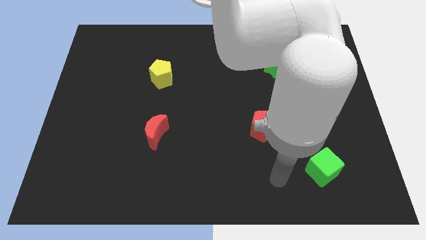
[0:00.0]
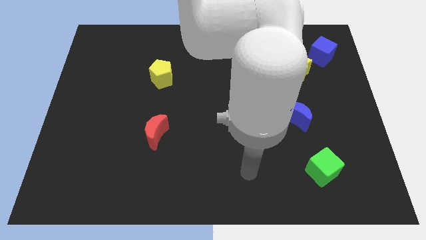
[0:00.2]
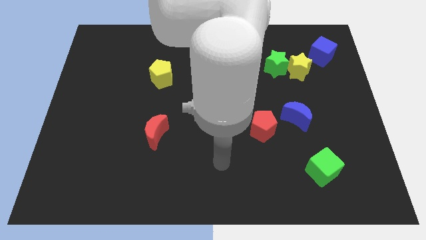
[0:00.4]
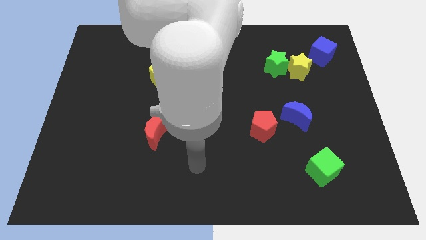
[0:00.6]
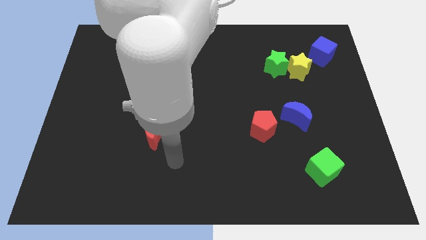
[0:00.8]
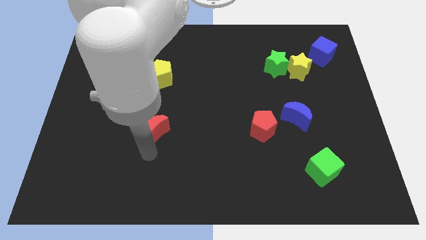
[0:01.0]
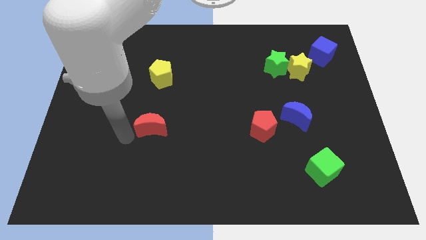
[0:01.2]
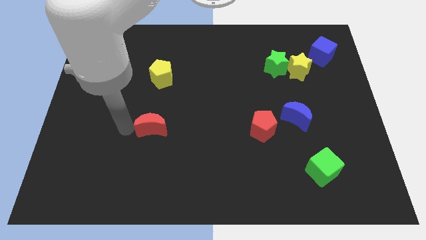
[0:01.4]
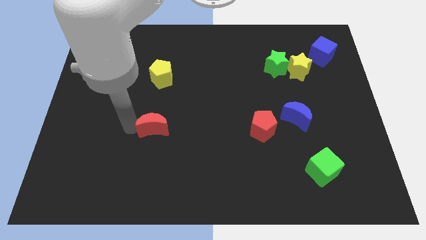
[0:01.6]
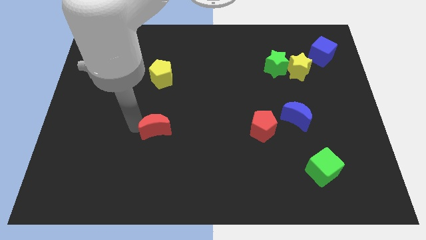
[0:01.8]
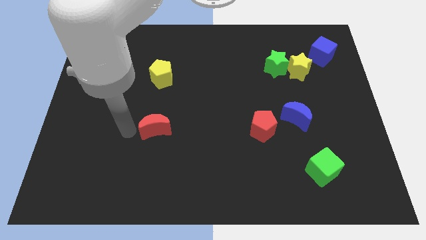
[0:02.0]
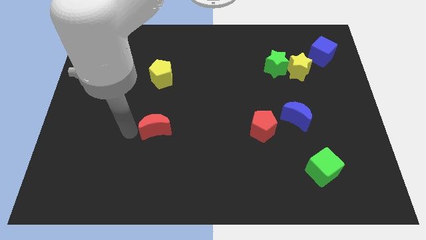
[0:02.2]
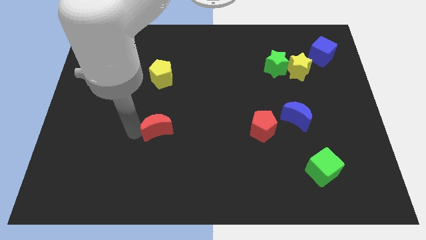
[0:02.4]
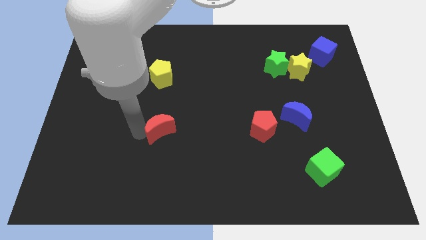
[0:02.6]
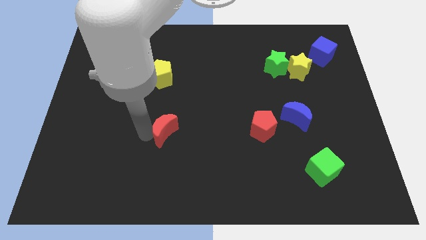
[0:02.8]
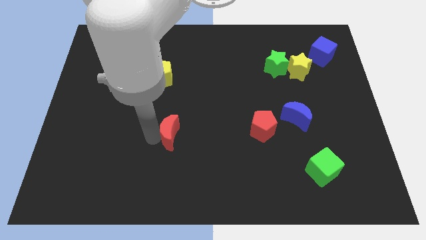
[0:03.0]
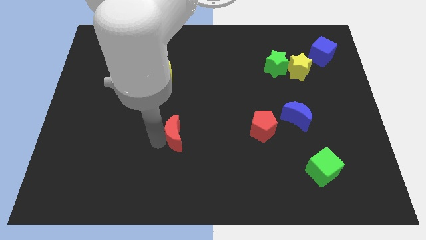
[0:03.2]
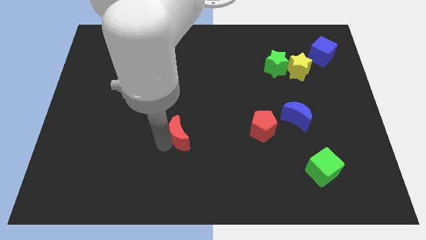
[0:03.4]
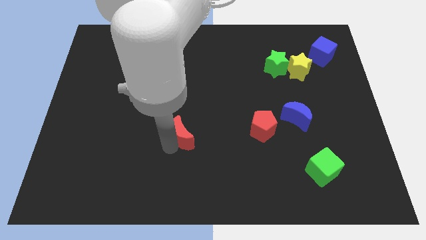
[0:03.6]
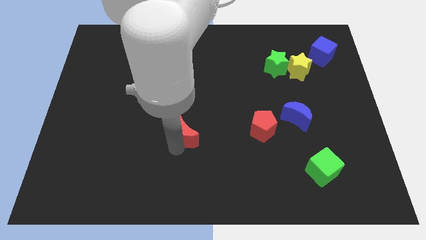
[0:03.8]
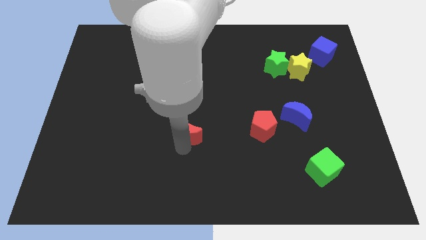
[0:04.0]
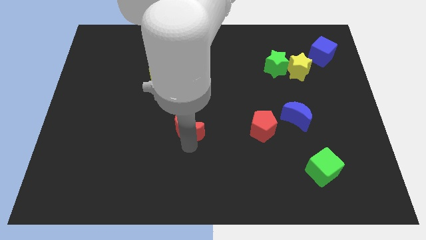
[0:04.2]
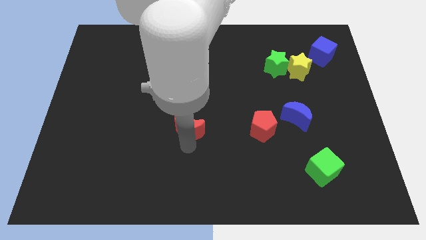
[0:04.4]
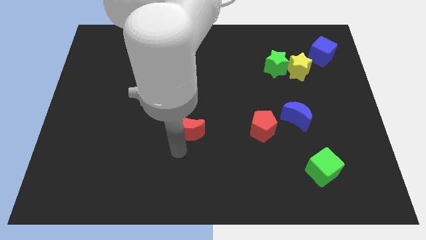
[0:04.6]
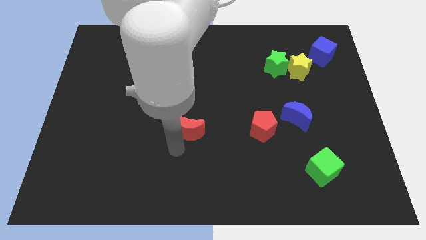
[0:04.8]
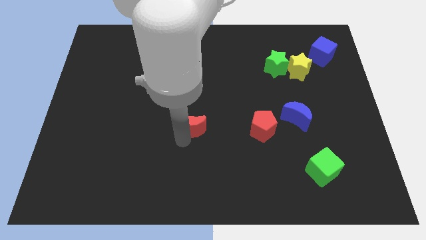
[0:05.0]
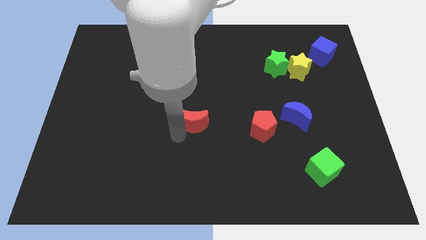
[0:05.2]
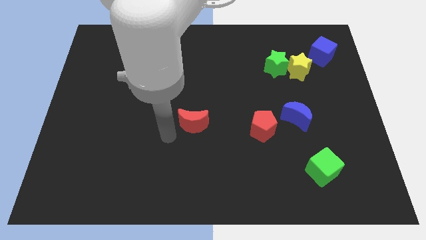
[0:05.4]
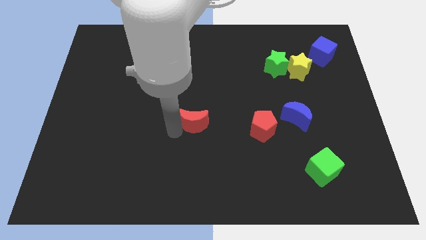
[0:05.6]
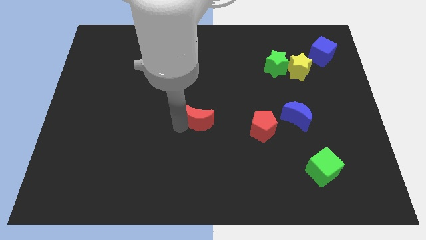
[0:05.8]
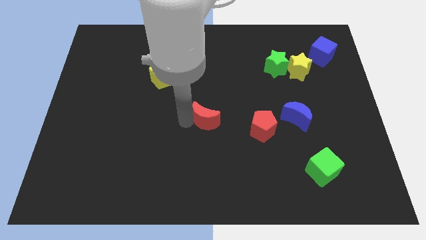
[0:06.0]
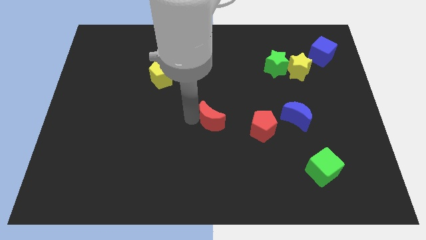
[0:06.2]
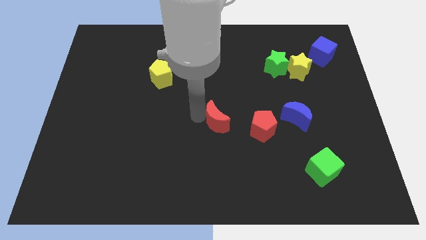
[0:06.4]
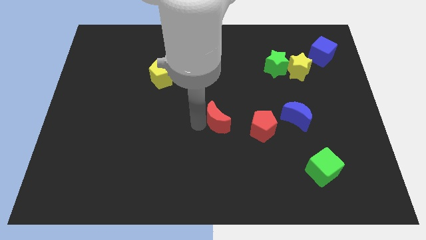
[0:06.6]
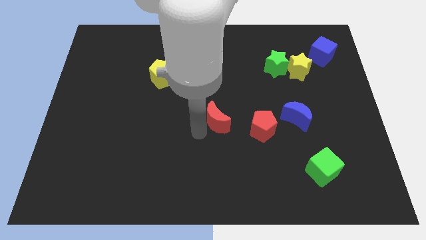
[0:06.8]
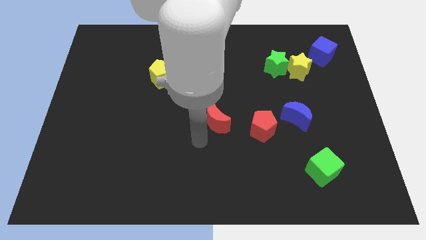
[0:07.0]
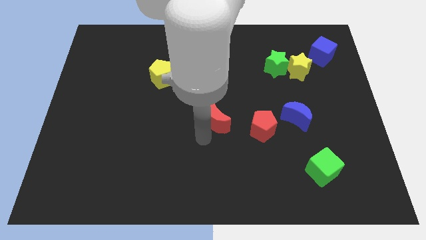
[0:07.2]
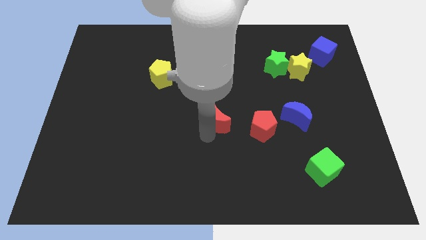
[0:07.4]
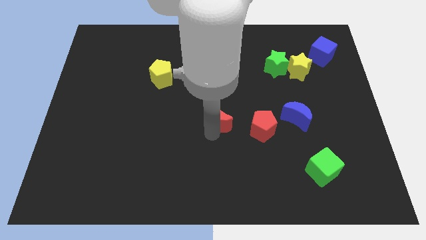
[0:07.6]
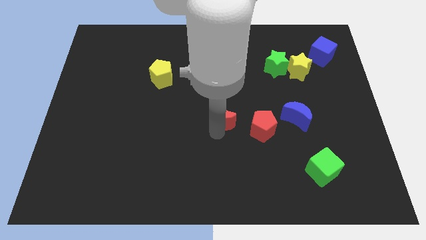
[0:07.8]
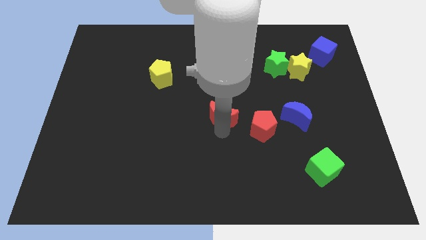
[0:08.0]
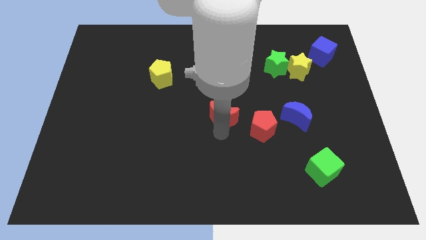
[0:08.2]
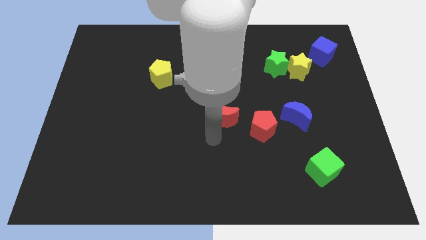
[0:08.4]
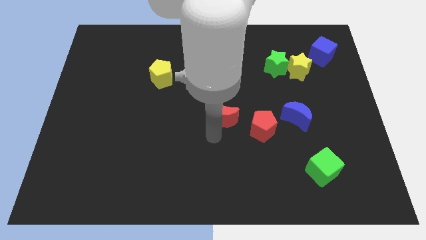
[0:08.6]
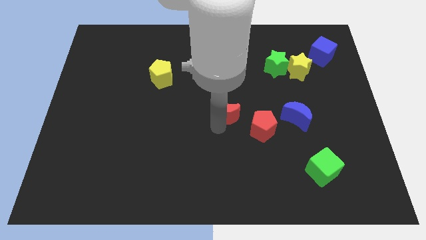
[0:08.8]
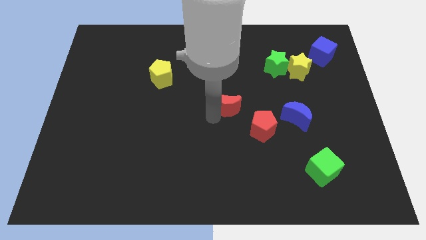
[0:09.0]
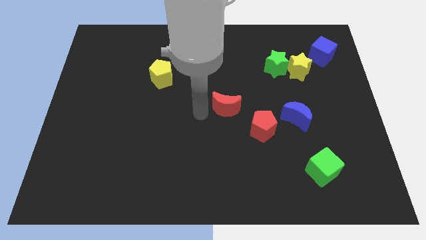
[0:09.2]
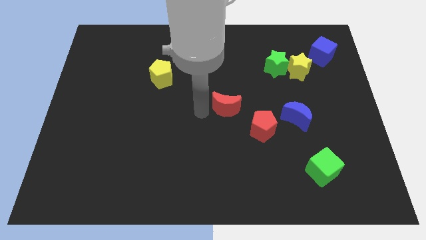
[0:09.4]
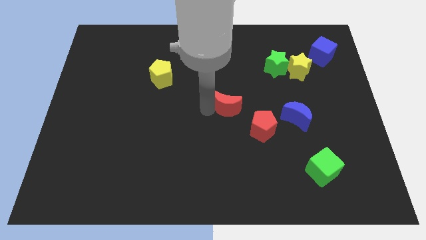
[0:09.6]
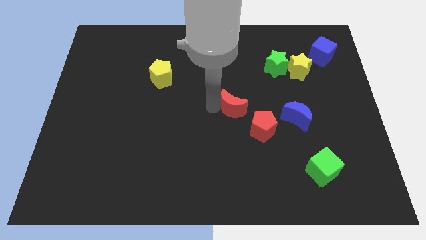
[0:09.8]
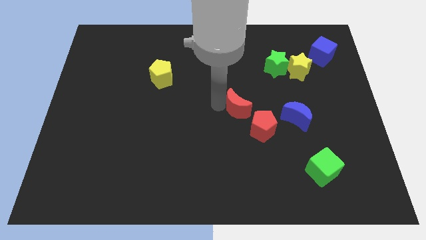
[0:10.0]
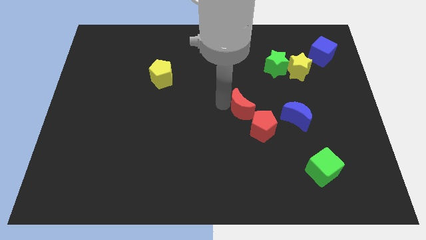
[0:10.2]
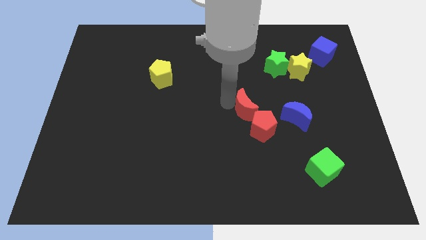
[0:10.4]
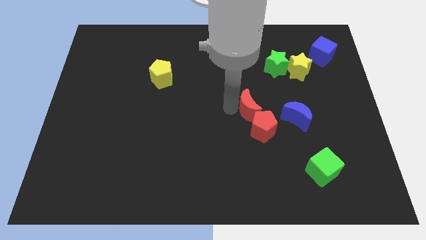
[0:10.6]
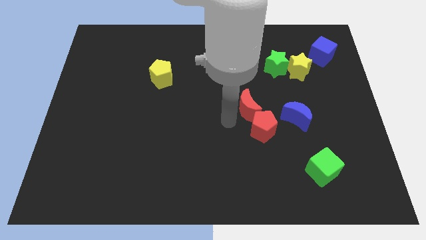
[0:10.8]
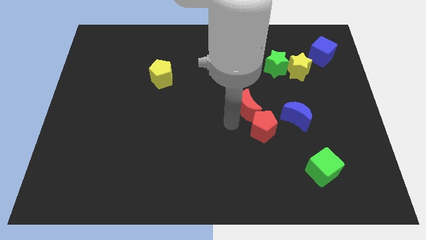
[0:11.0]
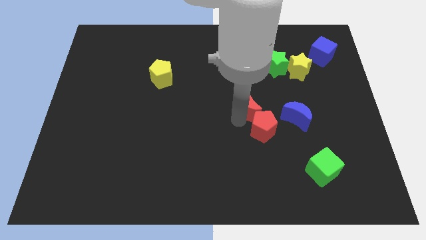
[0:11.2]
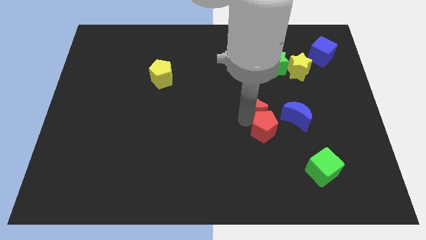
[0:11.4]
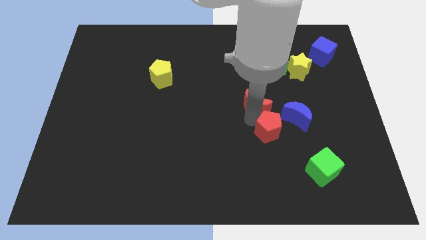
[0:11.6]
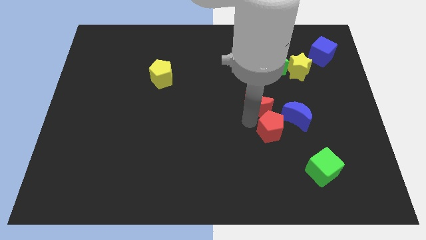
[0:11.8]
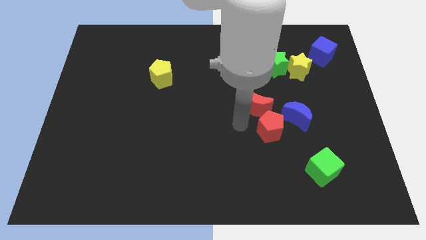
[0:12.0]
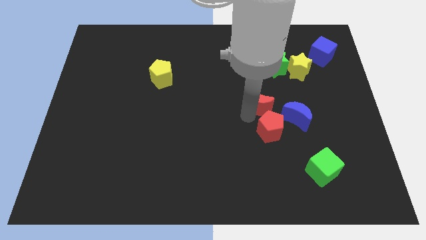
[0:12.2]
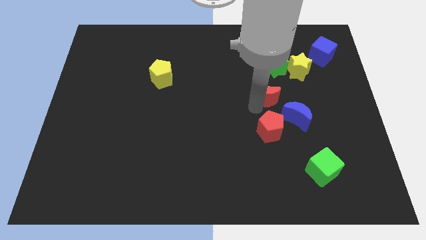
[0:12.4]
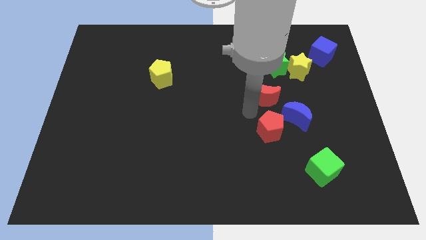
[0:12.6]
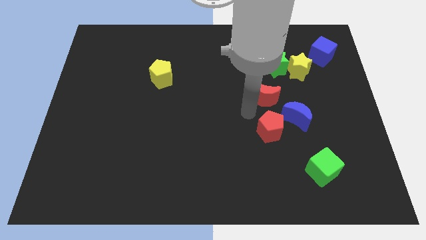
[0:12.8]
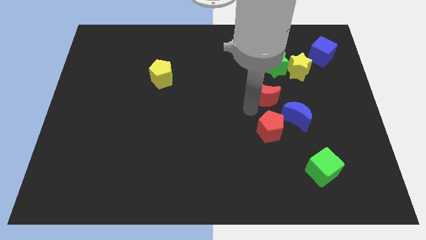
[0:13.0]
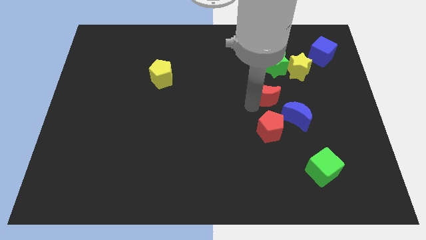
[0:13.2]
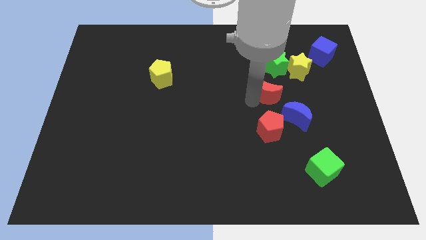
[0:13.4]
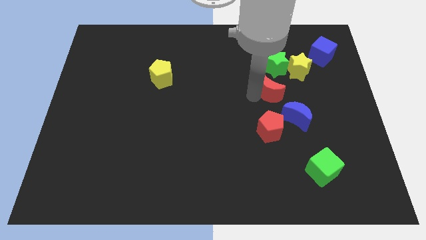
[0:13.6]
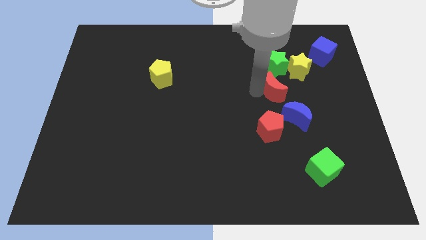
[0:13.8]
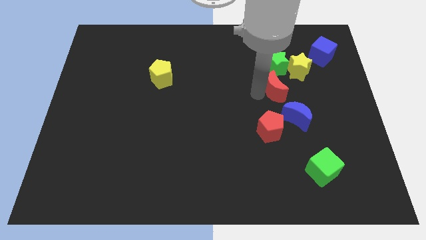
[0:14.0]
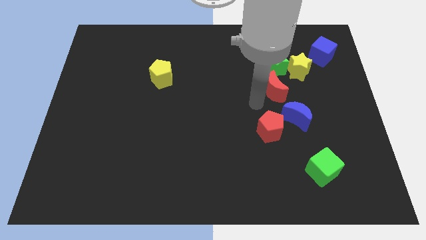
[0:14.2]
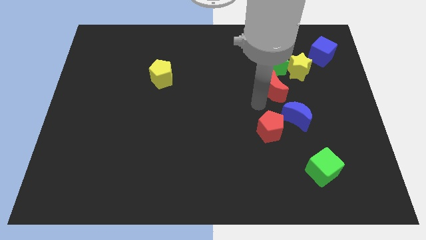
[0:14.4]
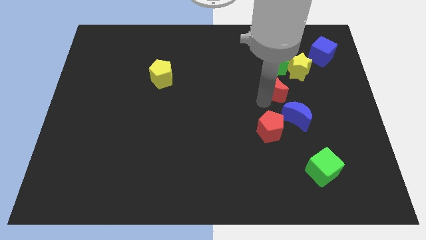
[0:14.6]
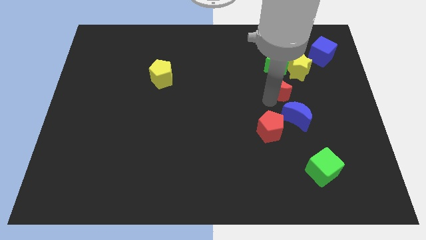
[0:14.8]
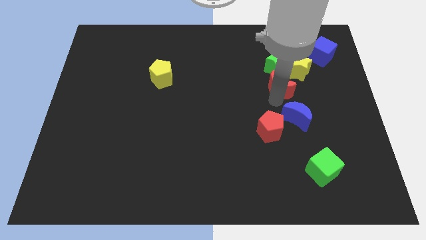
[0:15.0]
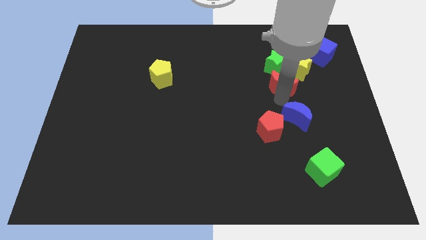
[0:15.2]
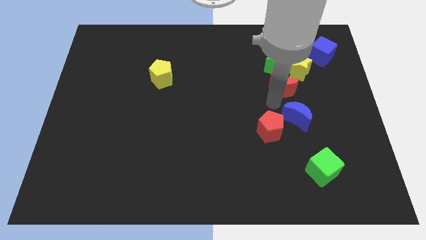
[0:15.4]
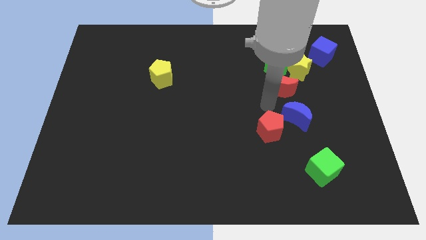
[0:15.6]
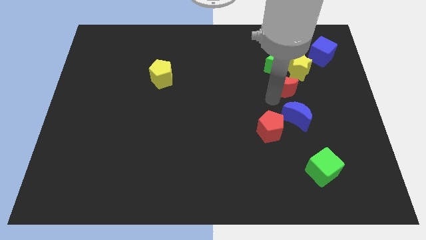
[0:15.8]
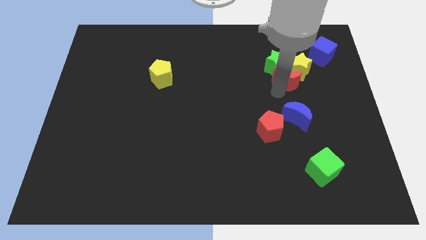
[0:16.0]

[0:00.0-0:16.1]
put the red moon to the yellow star
